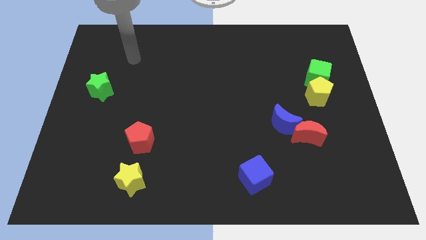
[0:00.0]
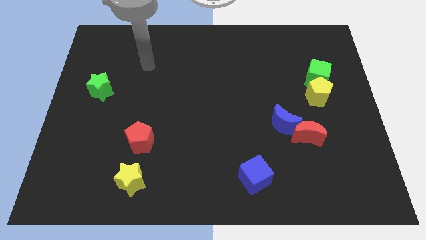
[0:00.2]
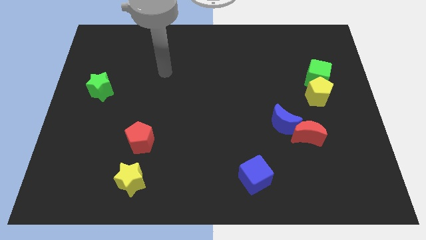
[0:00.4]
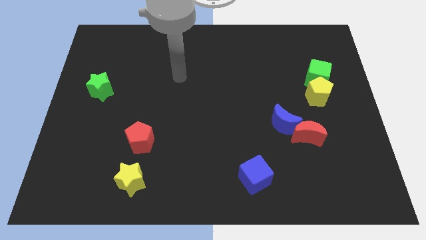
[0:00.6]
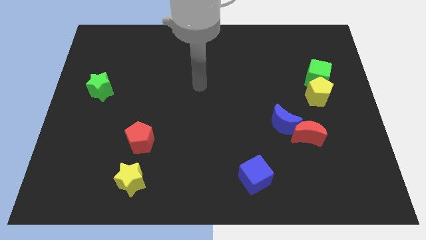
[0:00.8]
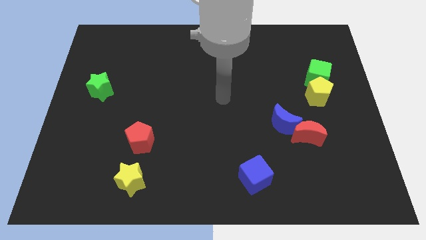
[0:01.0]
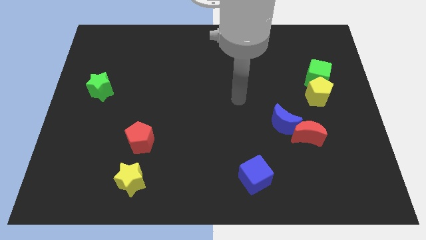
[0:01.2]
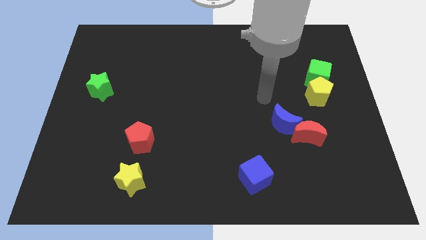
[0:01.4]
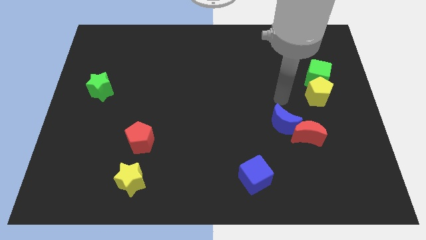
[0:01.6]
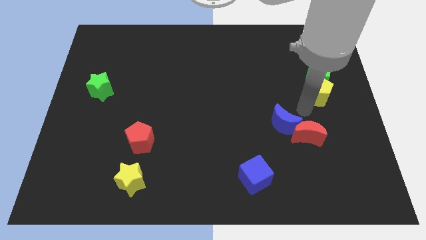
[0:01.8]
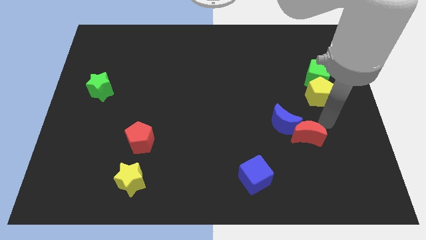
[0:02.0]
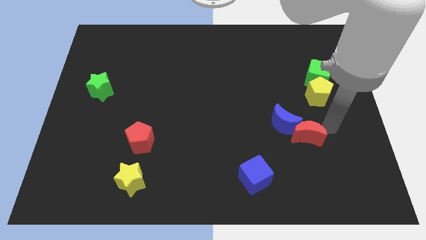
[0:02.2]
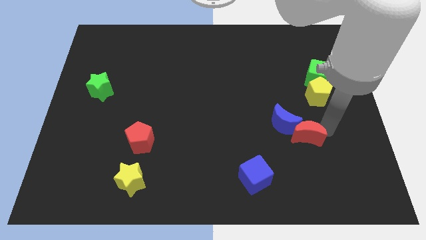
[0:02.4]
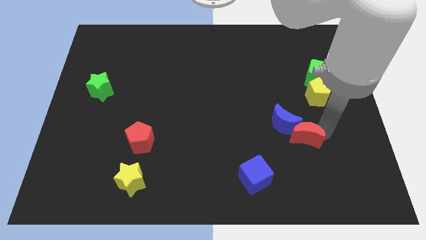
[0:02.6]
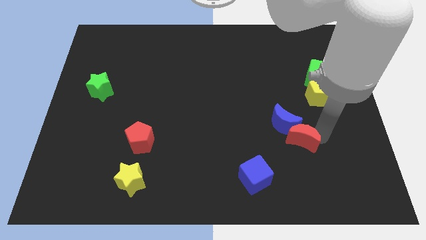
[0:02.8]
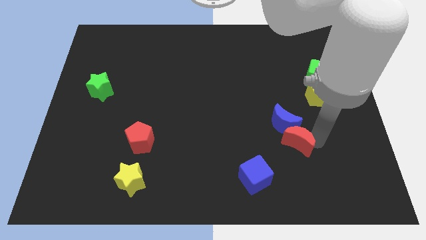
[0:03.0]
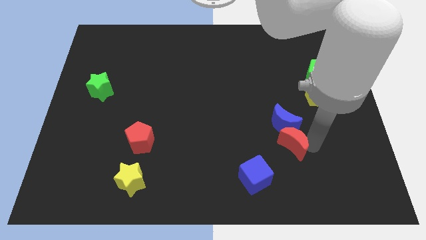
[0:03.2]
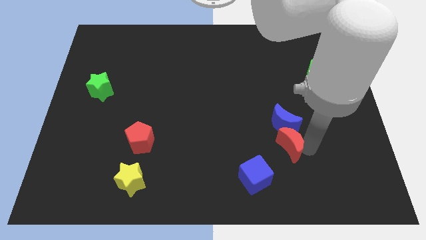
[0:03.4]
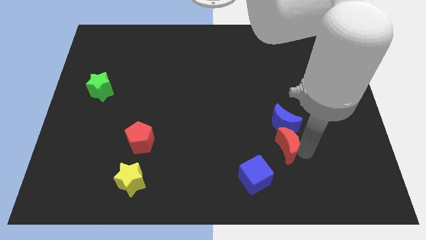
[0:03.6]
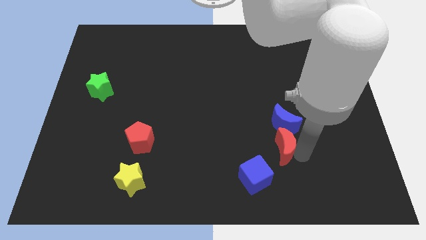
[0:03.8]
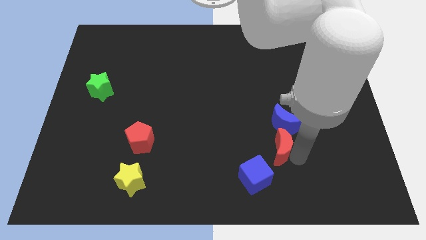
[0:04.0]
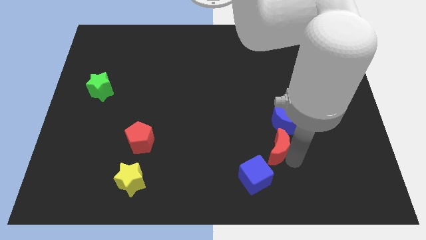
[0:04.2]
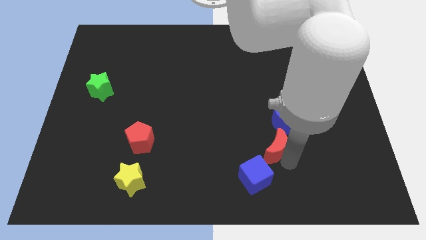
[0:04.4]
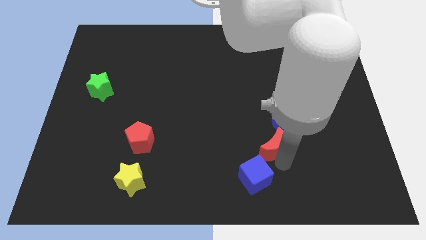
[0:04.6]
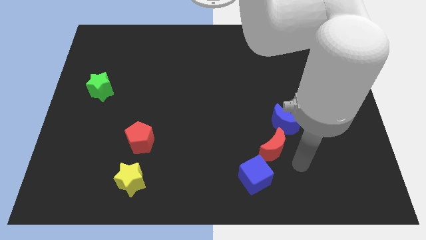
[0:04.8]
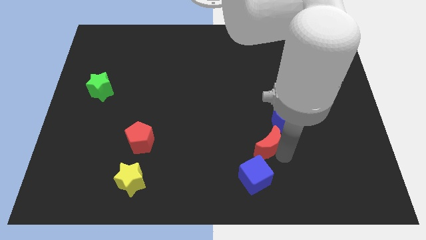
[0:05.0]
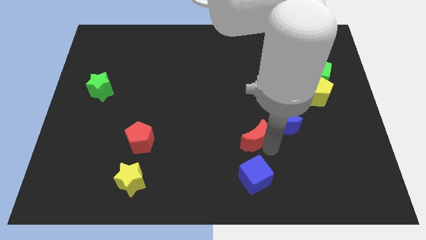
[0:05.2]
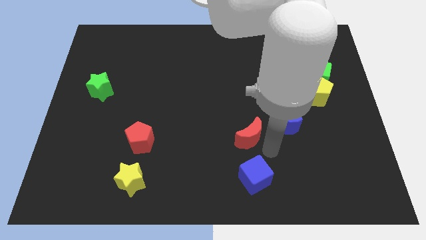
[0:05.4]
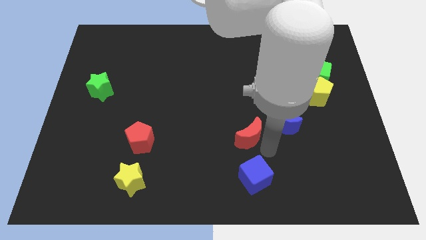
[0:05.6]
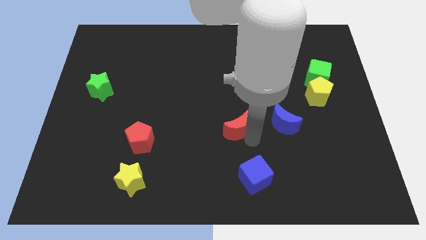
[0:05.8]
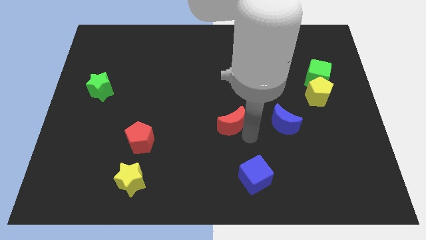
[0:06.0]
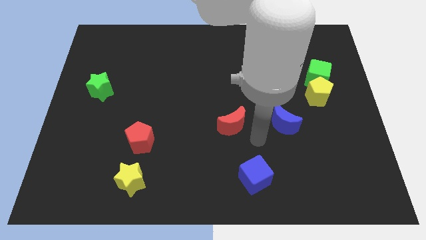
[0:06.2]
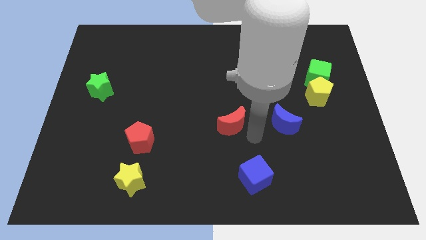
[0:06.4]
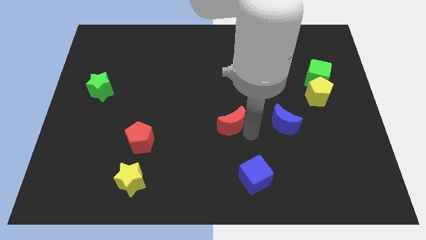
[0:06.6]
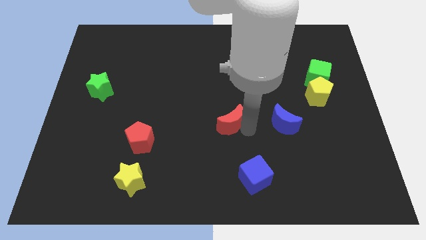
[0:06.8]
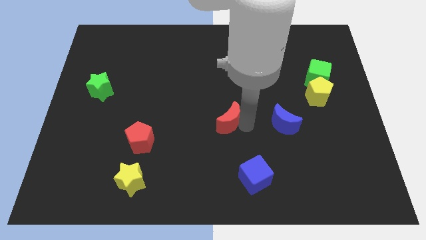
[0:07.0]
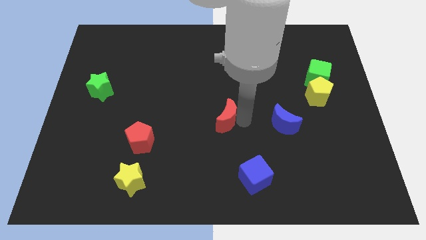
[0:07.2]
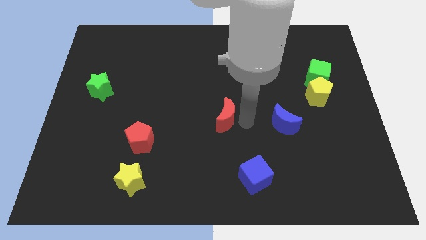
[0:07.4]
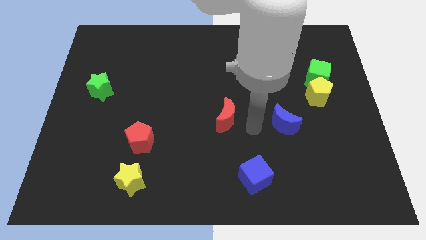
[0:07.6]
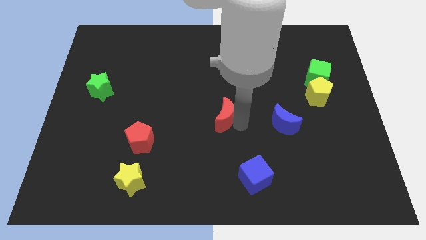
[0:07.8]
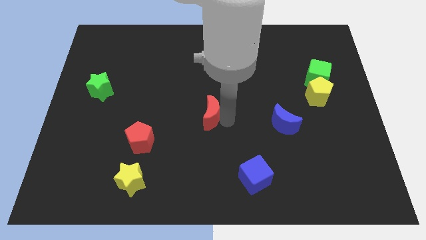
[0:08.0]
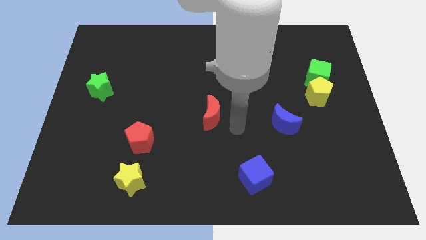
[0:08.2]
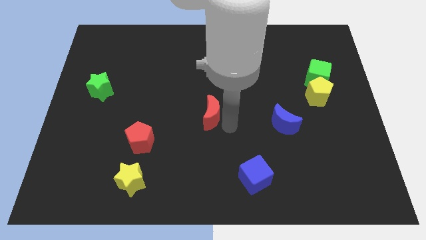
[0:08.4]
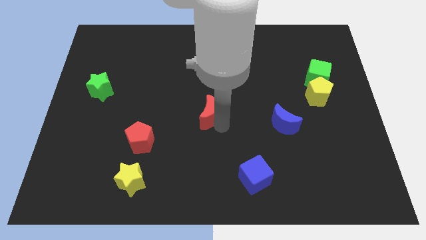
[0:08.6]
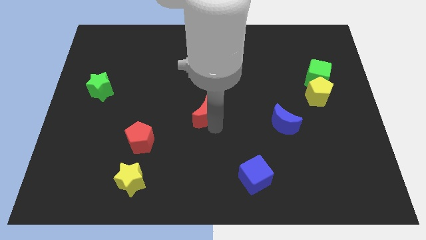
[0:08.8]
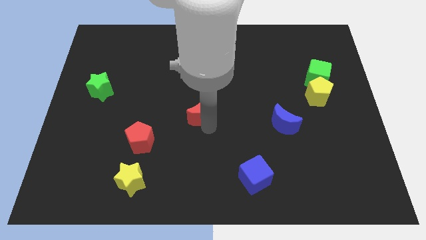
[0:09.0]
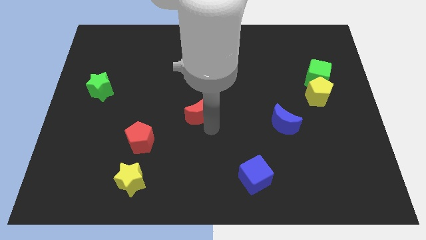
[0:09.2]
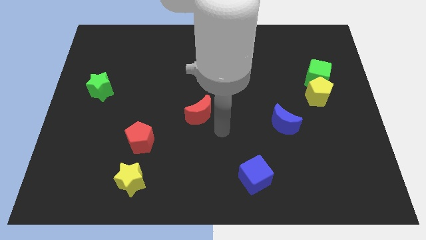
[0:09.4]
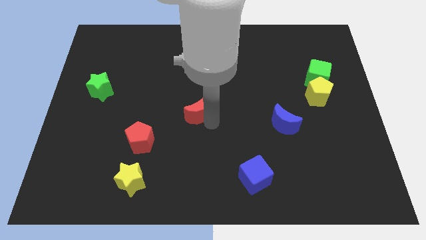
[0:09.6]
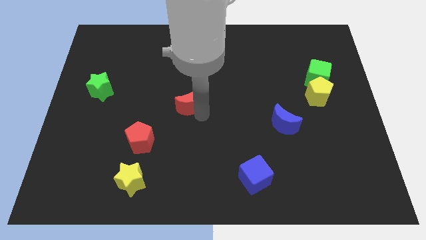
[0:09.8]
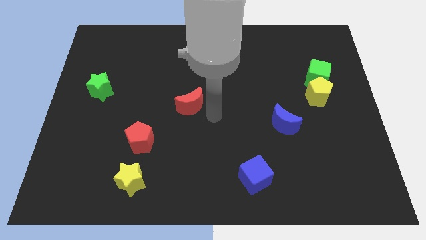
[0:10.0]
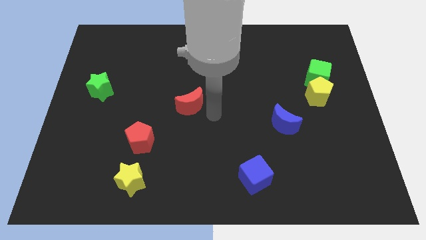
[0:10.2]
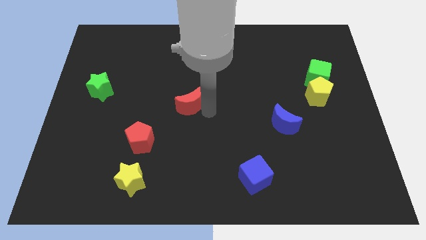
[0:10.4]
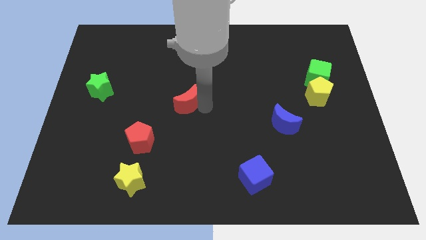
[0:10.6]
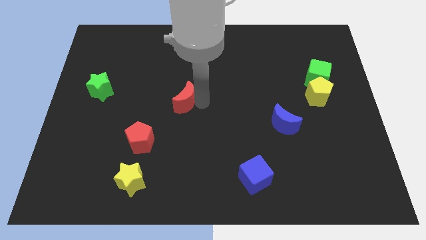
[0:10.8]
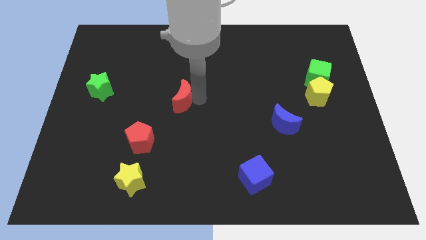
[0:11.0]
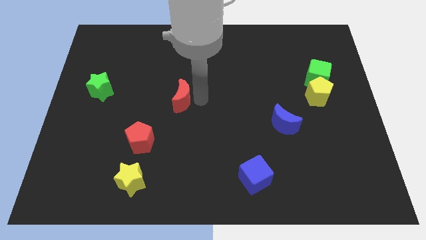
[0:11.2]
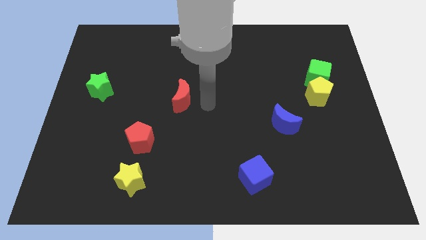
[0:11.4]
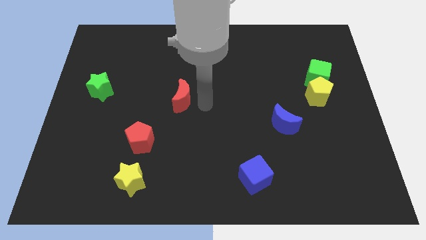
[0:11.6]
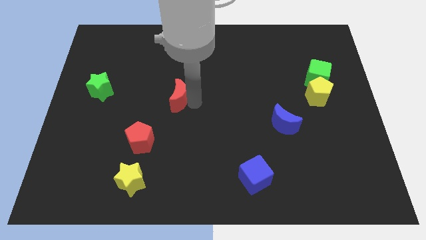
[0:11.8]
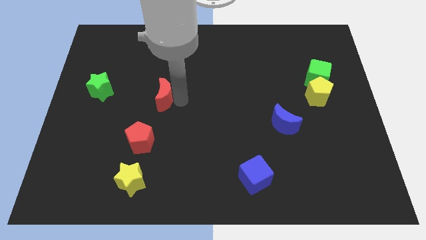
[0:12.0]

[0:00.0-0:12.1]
put the red moon to the right of the green star
